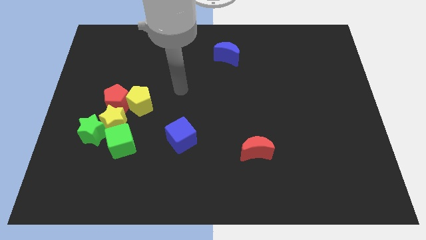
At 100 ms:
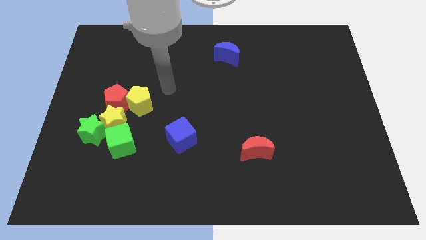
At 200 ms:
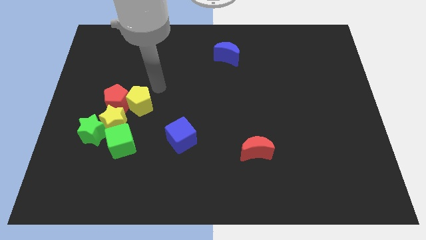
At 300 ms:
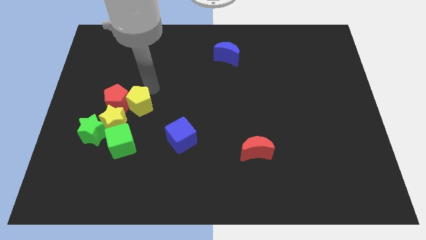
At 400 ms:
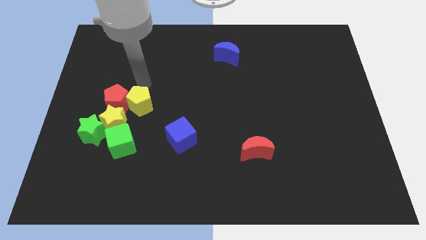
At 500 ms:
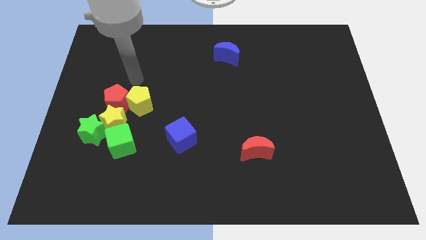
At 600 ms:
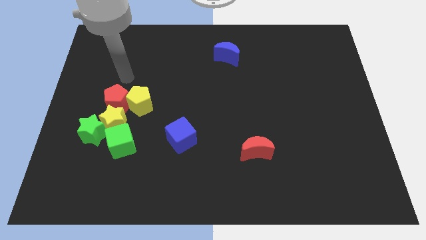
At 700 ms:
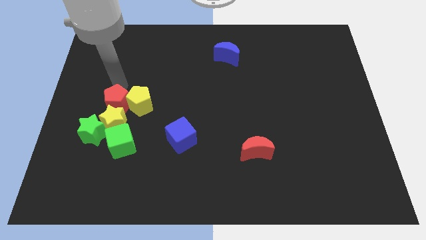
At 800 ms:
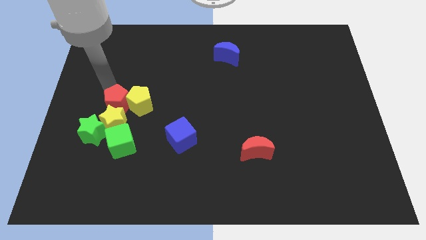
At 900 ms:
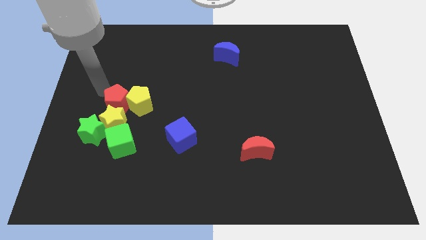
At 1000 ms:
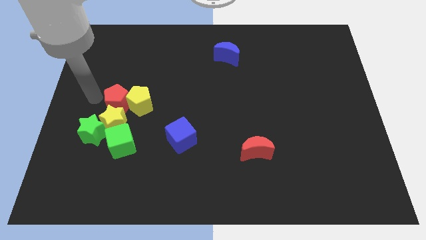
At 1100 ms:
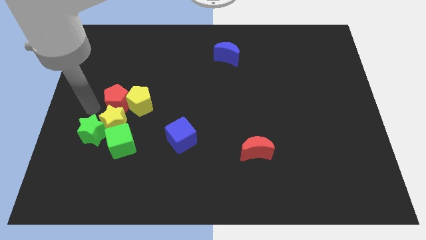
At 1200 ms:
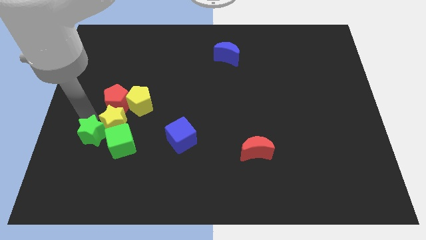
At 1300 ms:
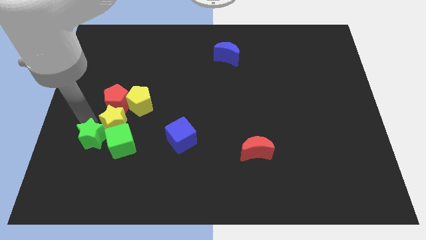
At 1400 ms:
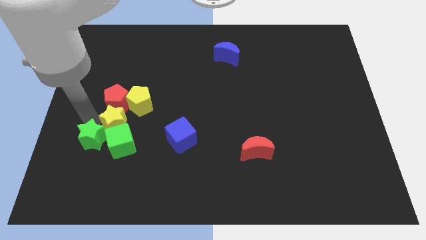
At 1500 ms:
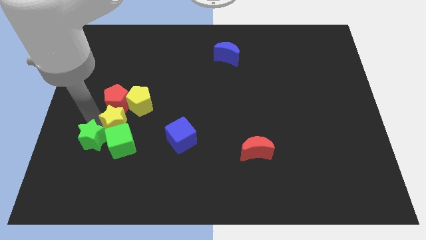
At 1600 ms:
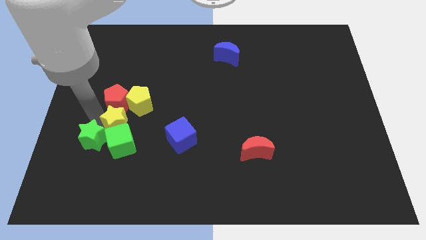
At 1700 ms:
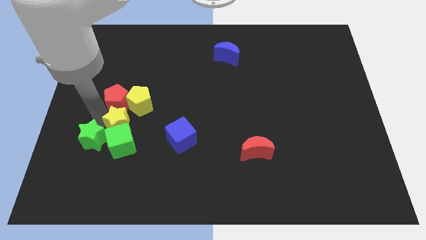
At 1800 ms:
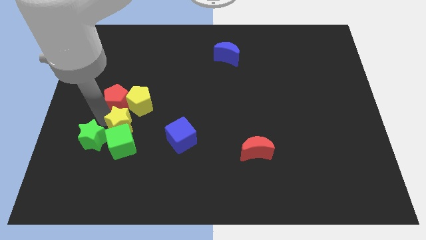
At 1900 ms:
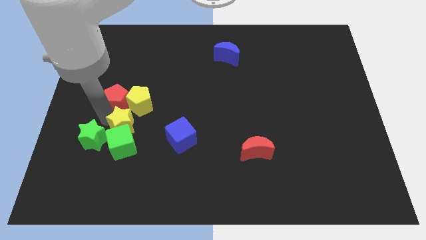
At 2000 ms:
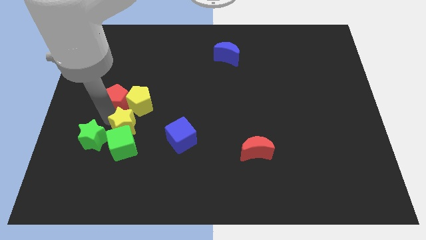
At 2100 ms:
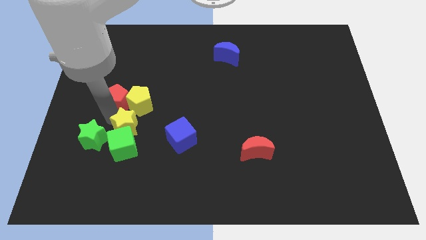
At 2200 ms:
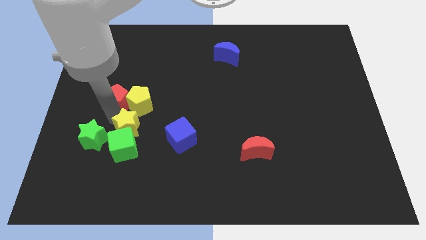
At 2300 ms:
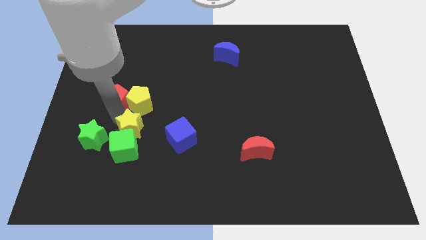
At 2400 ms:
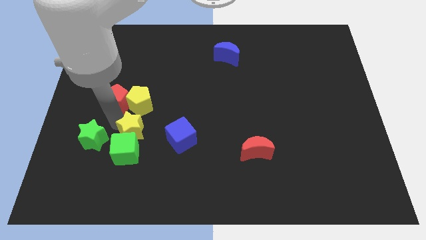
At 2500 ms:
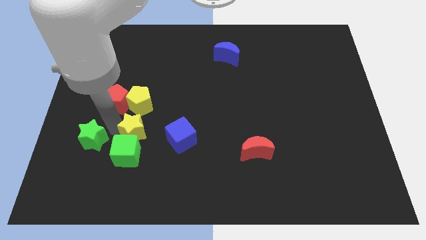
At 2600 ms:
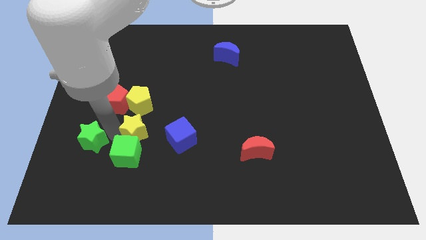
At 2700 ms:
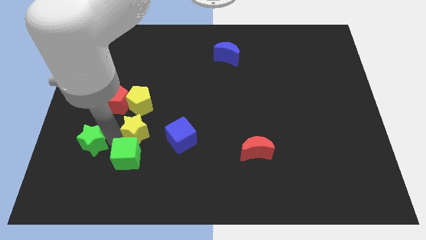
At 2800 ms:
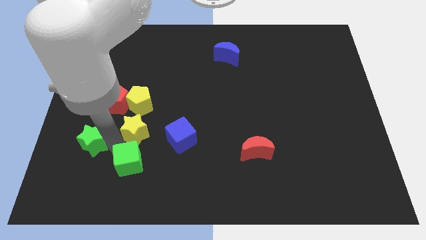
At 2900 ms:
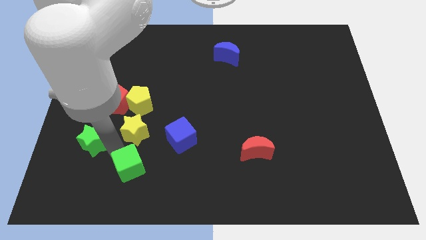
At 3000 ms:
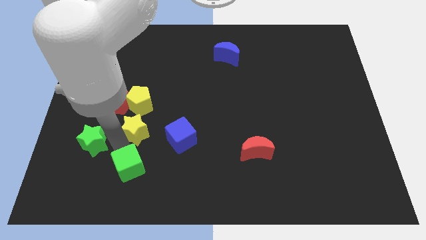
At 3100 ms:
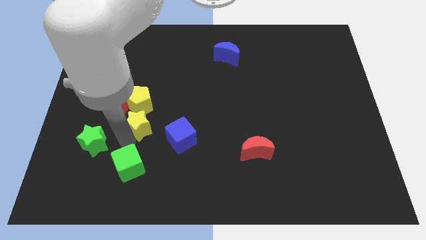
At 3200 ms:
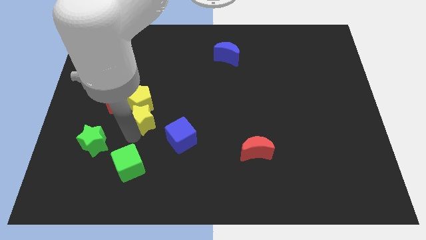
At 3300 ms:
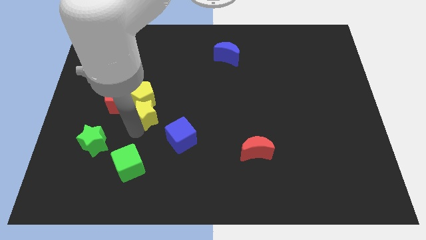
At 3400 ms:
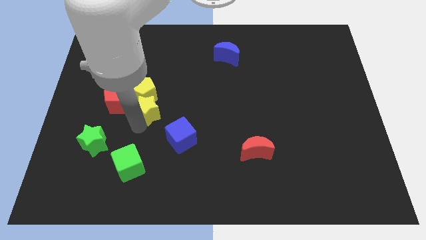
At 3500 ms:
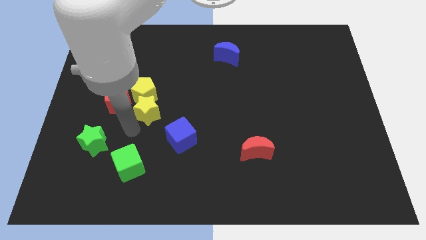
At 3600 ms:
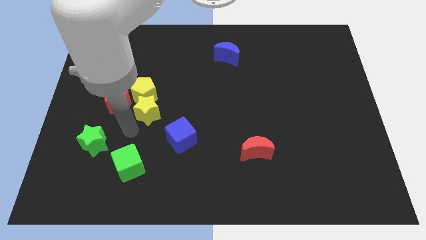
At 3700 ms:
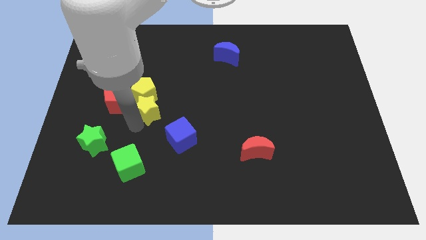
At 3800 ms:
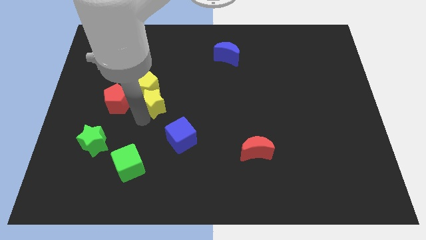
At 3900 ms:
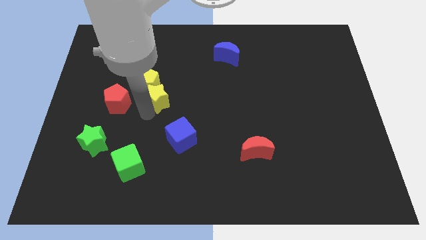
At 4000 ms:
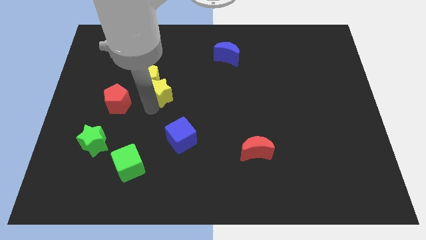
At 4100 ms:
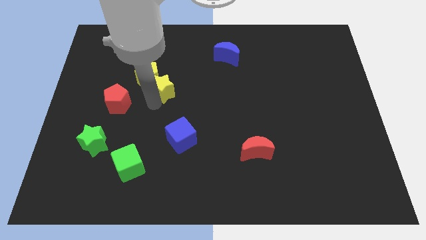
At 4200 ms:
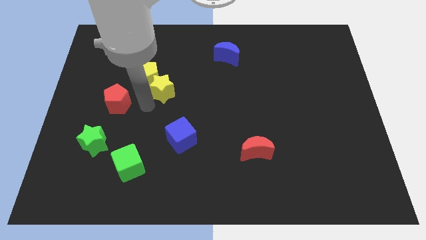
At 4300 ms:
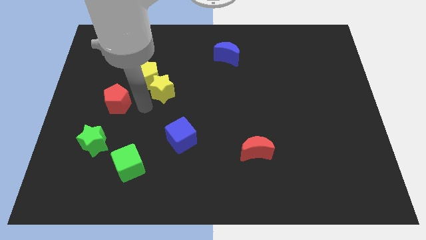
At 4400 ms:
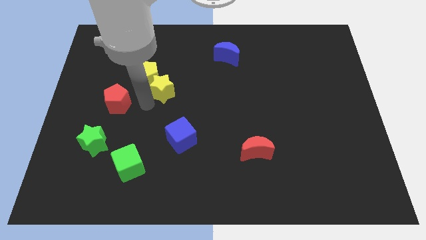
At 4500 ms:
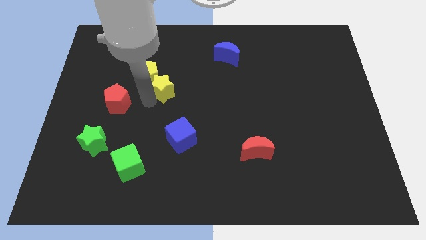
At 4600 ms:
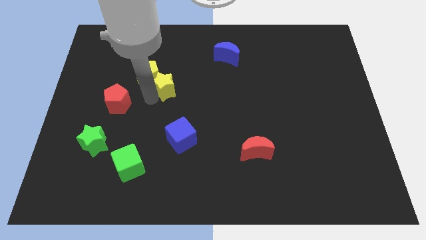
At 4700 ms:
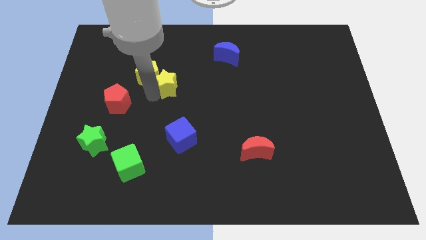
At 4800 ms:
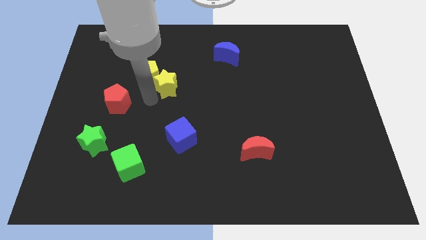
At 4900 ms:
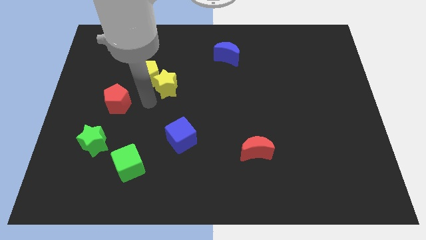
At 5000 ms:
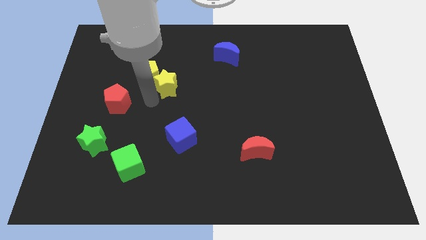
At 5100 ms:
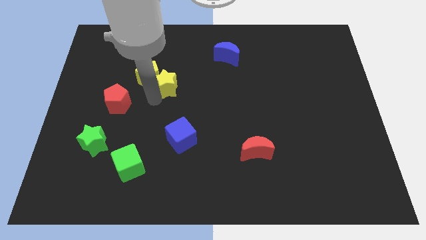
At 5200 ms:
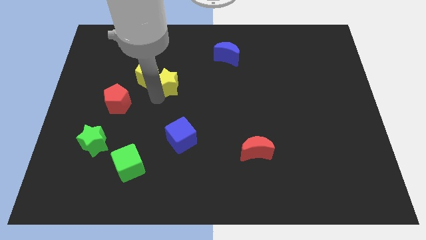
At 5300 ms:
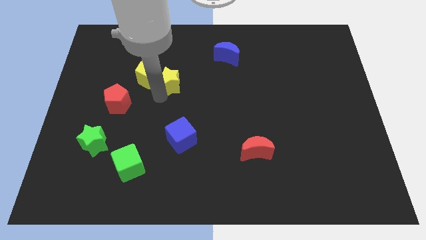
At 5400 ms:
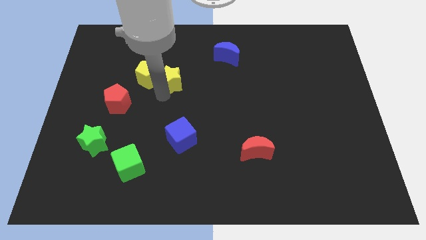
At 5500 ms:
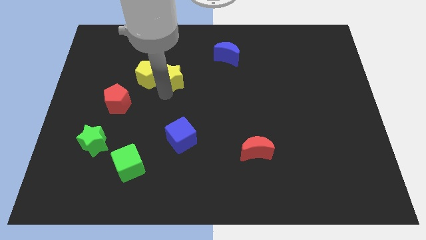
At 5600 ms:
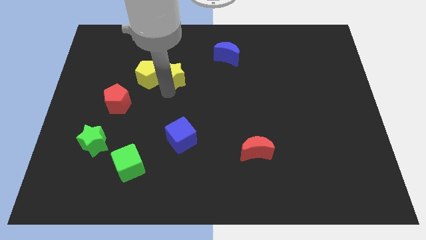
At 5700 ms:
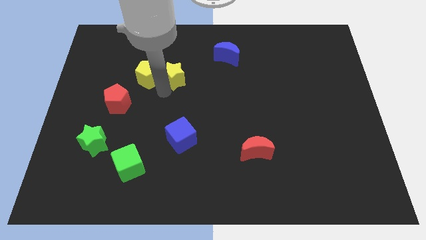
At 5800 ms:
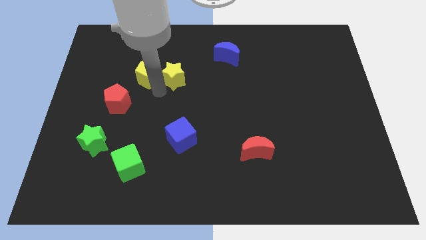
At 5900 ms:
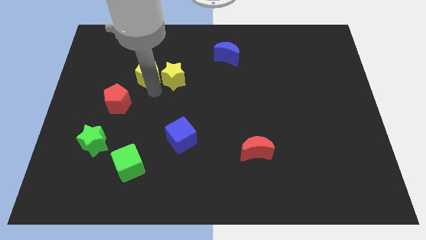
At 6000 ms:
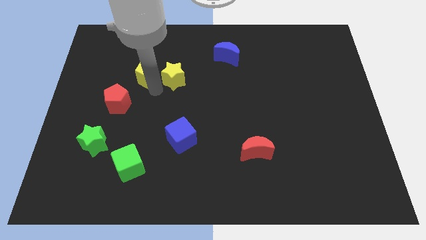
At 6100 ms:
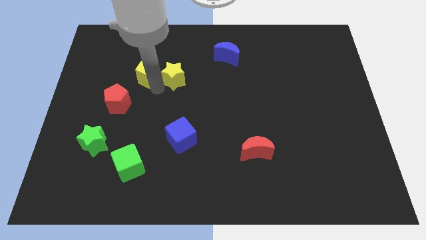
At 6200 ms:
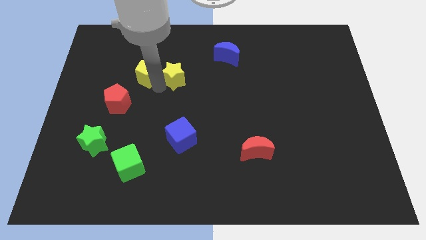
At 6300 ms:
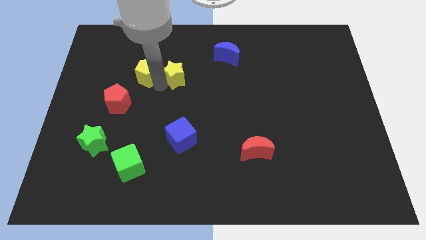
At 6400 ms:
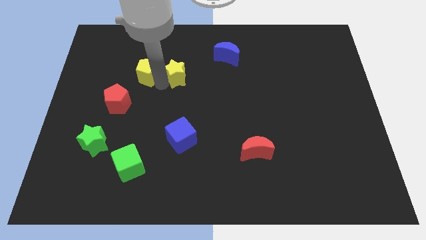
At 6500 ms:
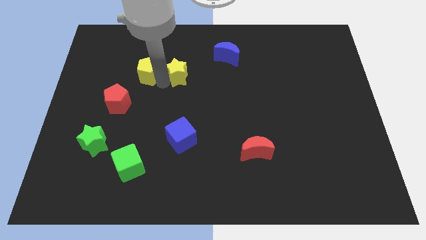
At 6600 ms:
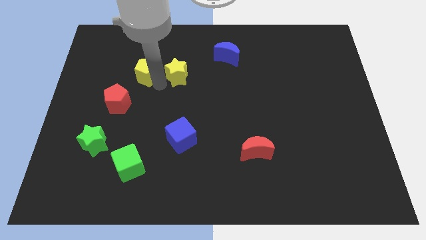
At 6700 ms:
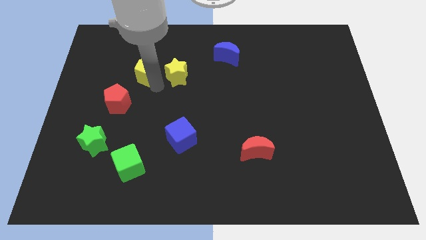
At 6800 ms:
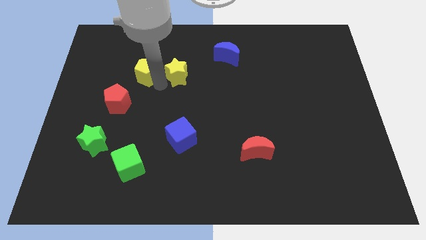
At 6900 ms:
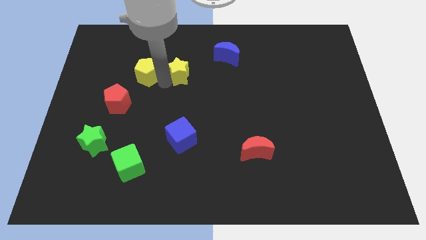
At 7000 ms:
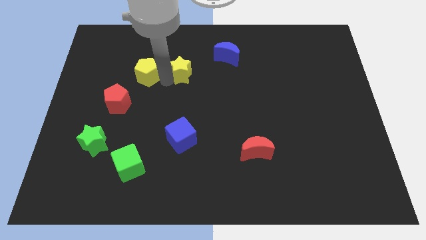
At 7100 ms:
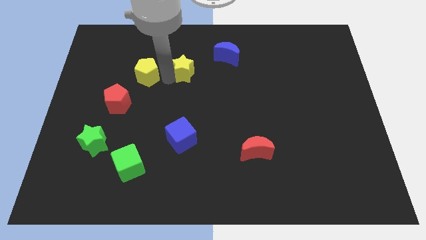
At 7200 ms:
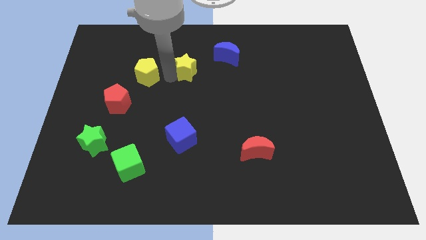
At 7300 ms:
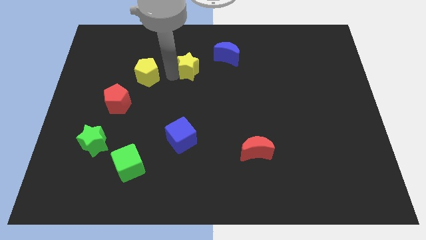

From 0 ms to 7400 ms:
push the yellow star just left of the blue moon
